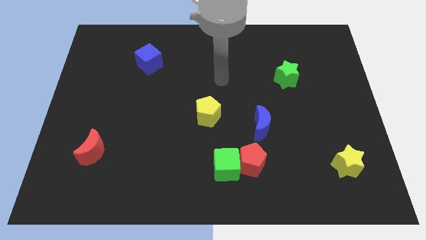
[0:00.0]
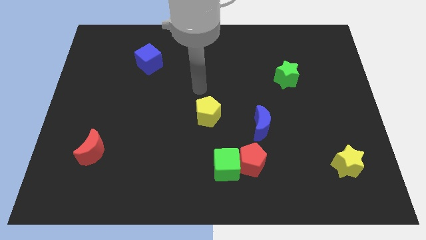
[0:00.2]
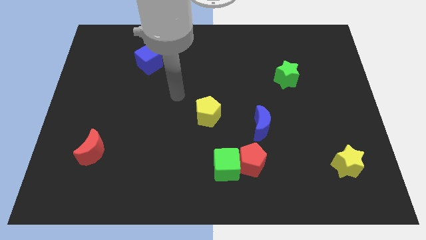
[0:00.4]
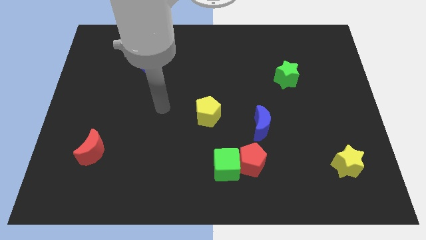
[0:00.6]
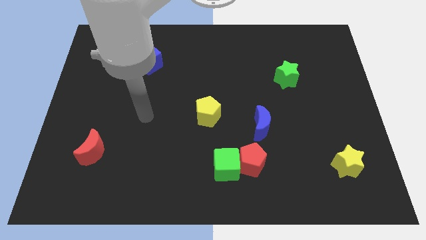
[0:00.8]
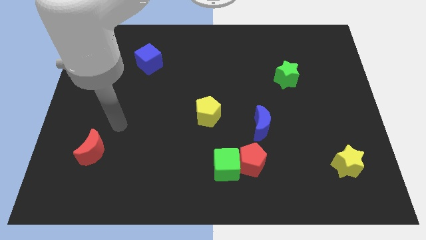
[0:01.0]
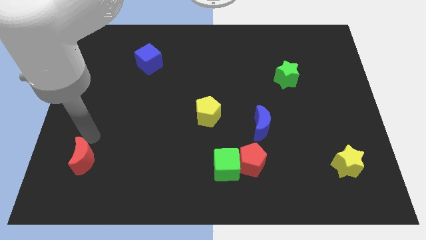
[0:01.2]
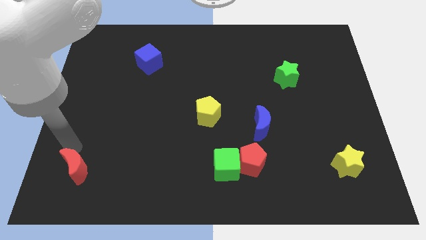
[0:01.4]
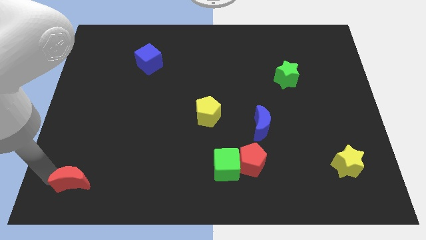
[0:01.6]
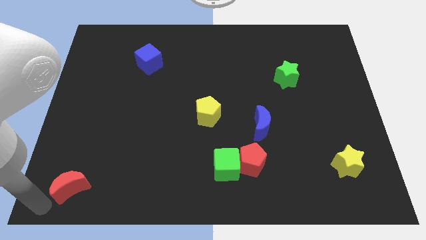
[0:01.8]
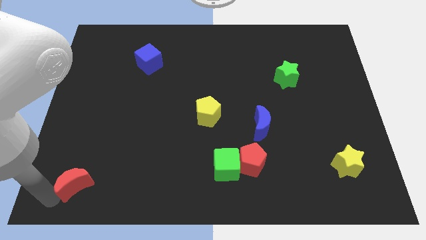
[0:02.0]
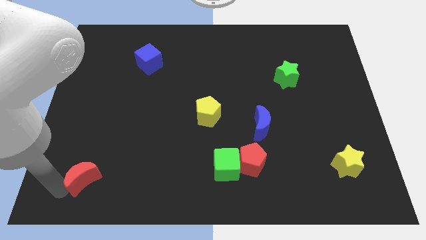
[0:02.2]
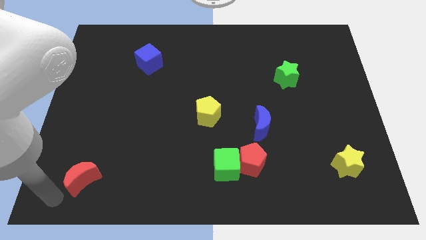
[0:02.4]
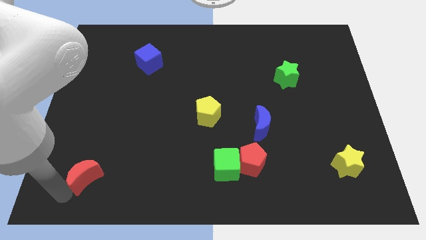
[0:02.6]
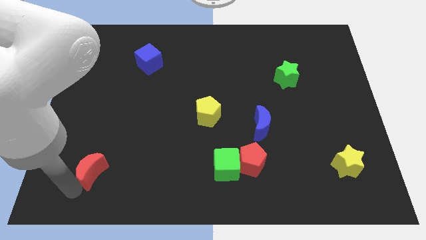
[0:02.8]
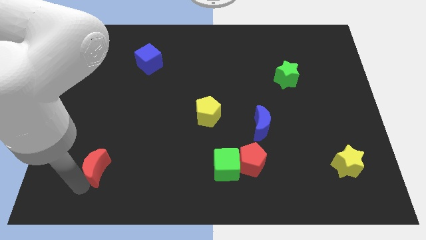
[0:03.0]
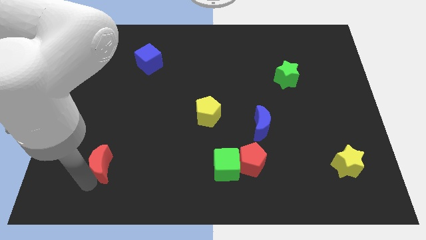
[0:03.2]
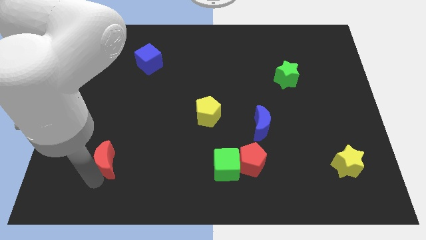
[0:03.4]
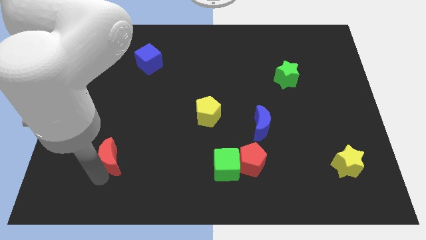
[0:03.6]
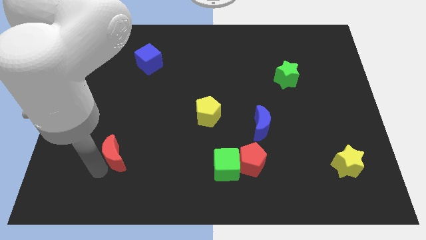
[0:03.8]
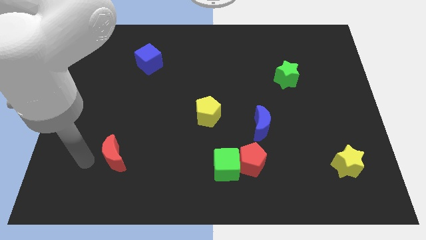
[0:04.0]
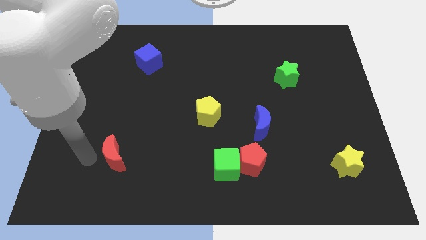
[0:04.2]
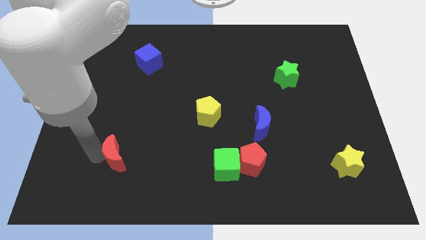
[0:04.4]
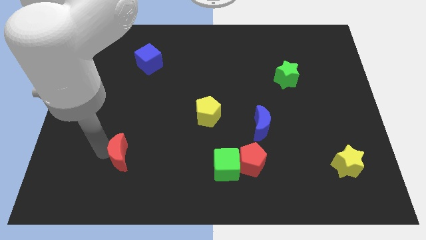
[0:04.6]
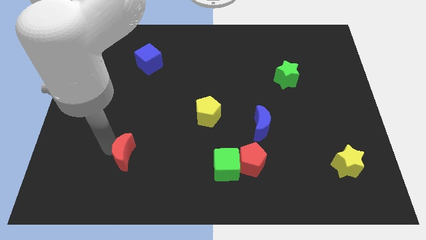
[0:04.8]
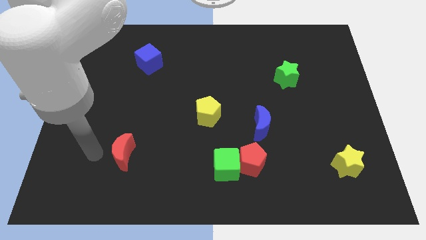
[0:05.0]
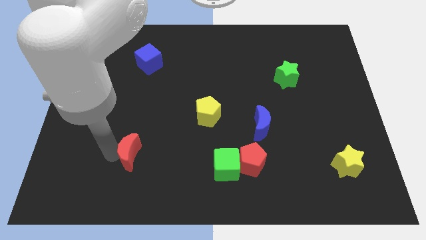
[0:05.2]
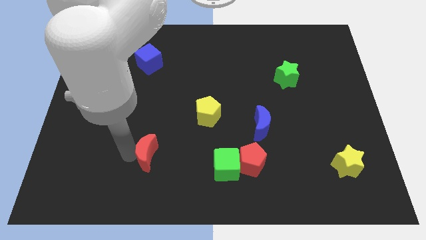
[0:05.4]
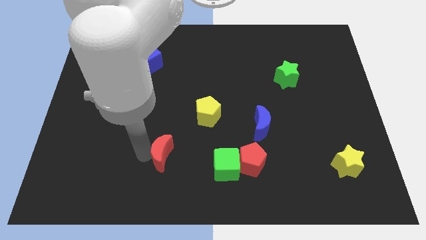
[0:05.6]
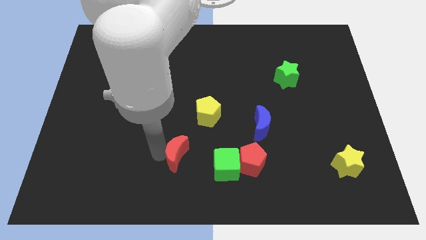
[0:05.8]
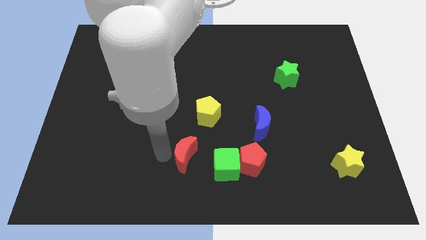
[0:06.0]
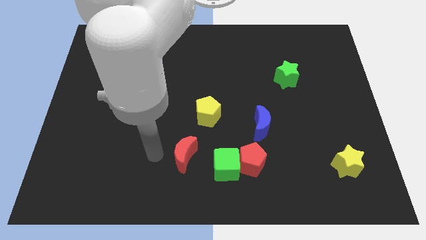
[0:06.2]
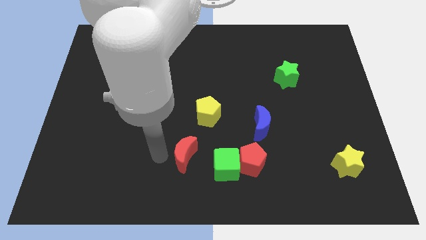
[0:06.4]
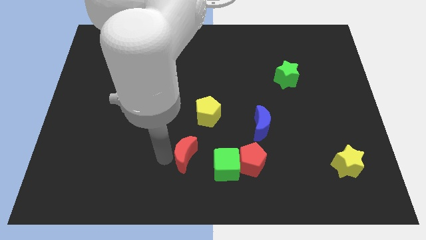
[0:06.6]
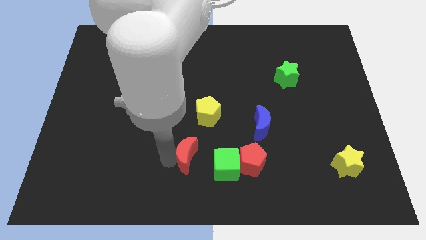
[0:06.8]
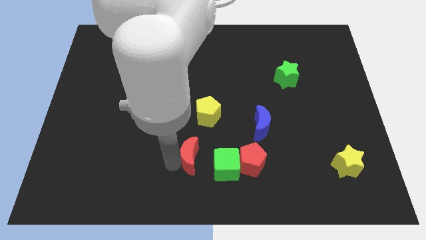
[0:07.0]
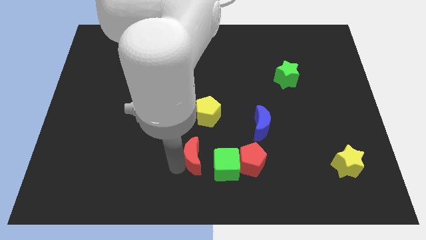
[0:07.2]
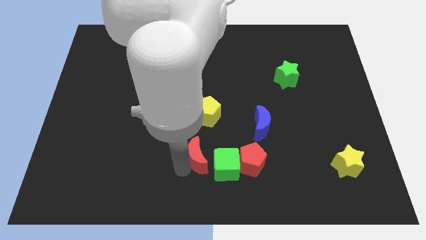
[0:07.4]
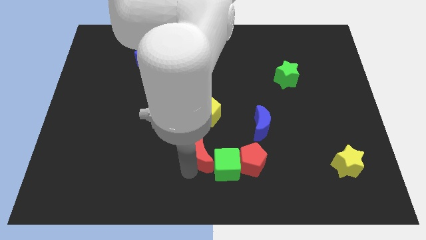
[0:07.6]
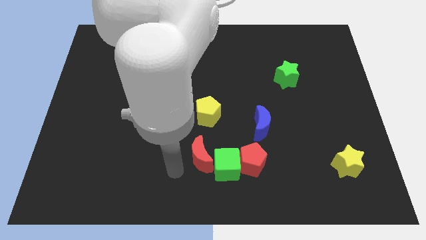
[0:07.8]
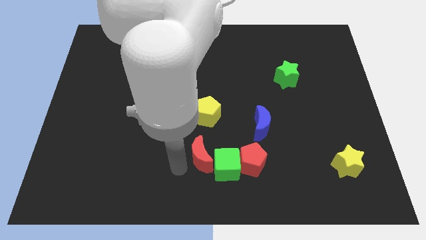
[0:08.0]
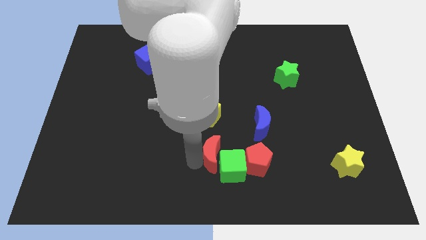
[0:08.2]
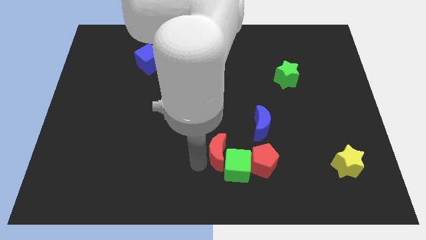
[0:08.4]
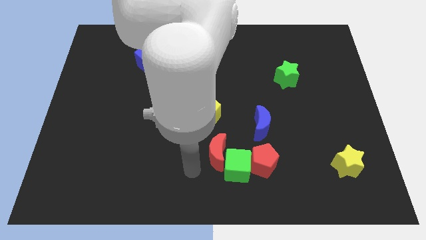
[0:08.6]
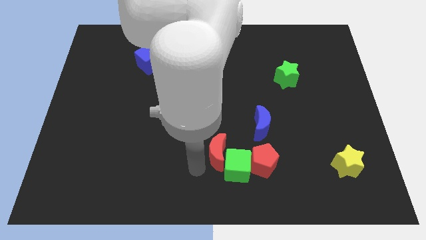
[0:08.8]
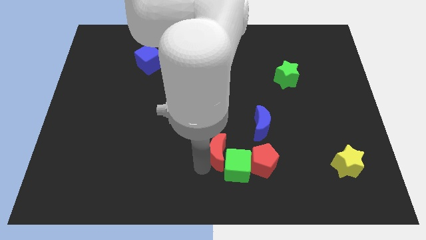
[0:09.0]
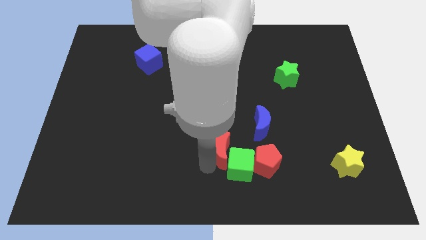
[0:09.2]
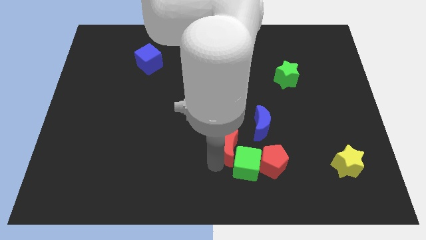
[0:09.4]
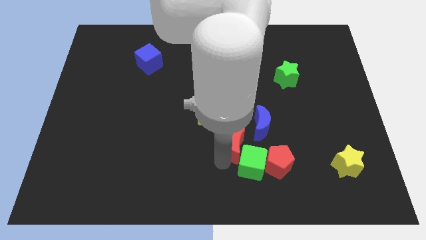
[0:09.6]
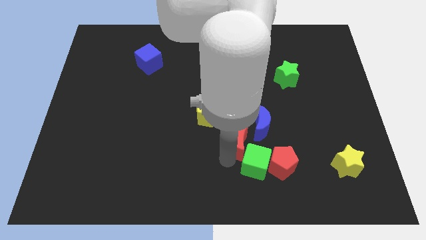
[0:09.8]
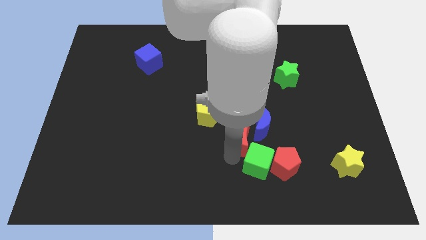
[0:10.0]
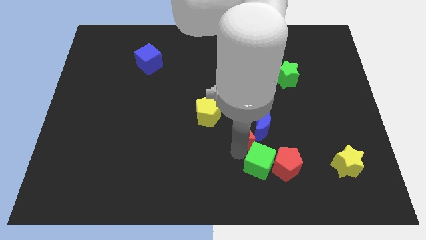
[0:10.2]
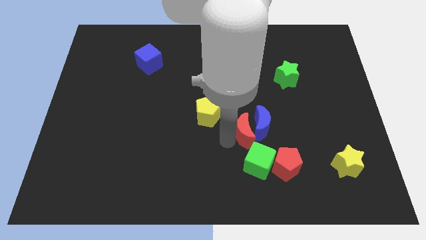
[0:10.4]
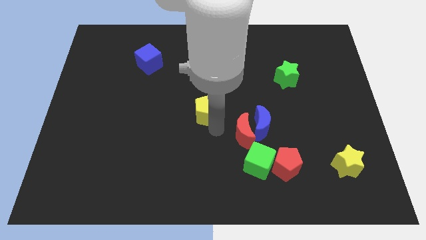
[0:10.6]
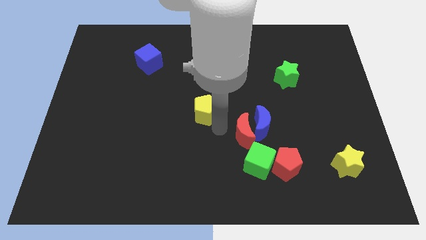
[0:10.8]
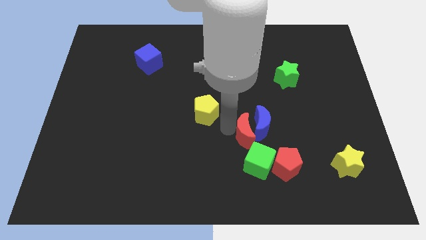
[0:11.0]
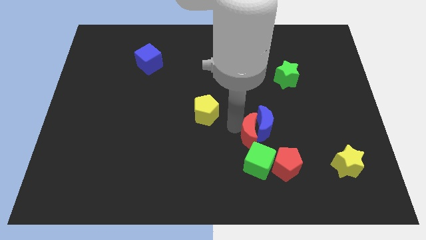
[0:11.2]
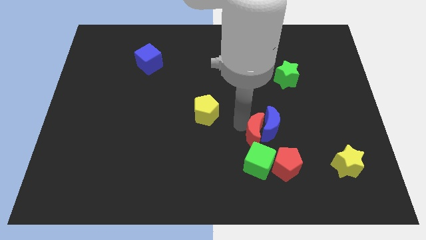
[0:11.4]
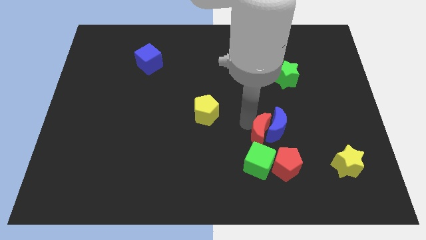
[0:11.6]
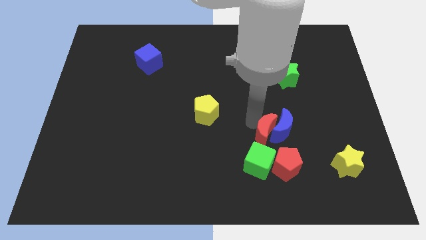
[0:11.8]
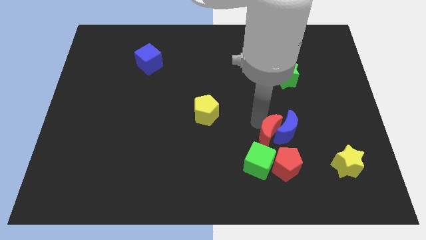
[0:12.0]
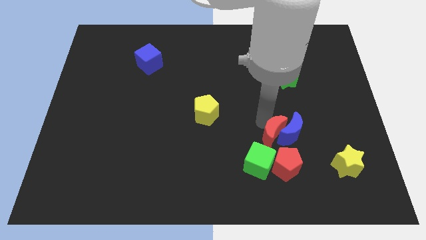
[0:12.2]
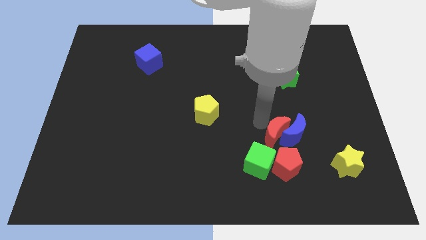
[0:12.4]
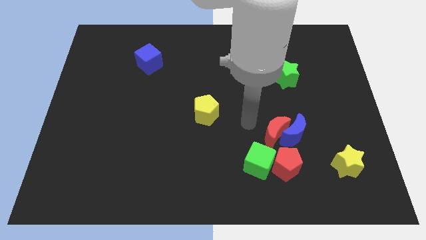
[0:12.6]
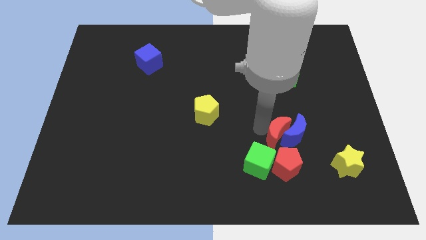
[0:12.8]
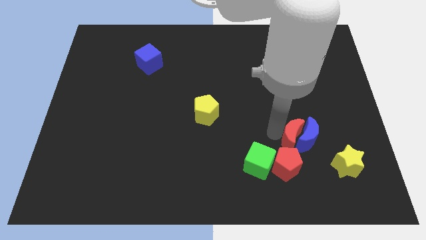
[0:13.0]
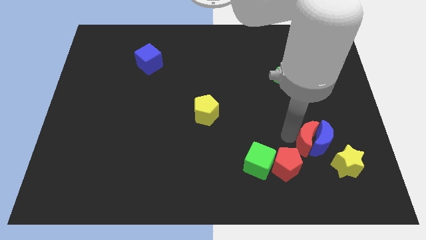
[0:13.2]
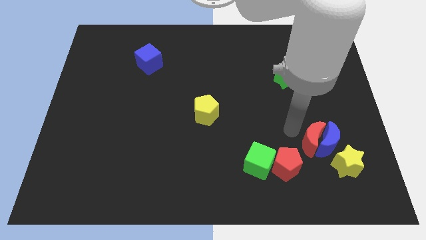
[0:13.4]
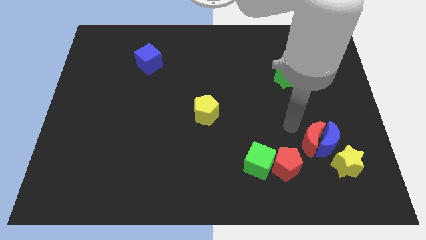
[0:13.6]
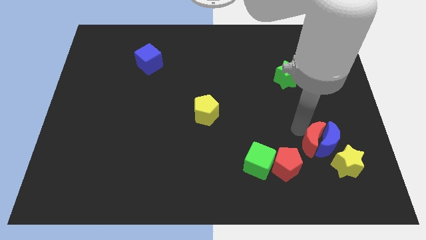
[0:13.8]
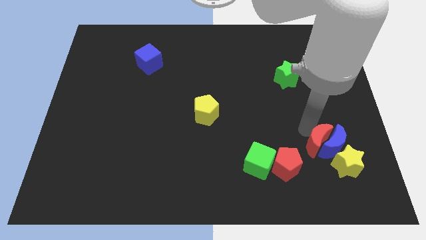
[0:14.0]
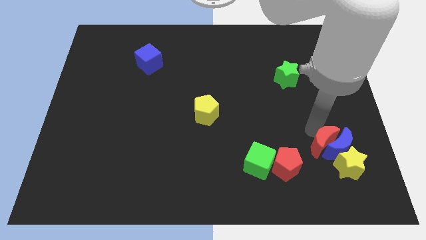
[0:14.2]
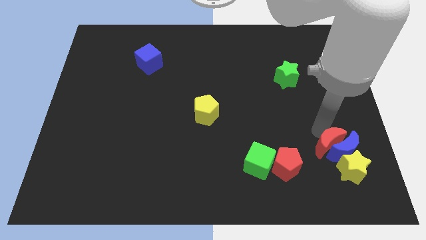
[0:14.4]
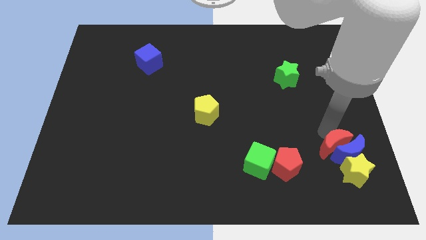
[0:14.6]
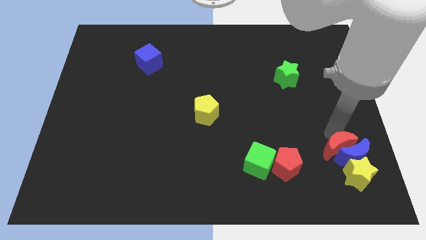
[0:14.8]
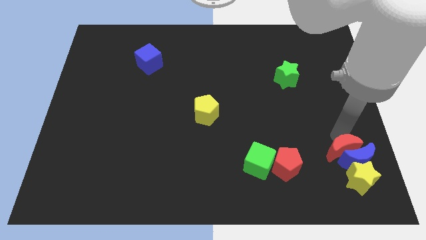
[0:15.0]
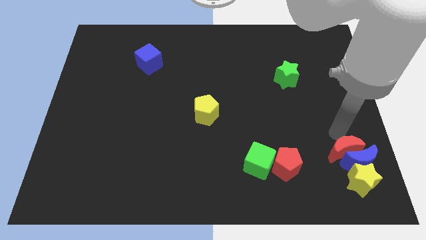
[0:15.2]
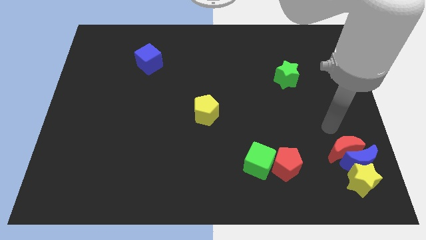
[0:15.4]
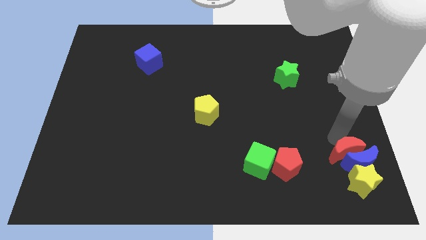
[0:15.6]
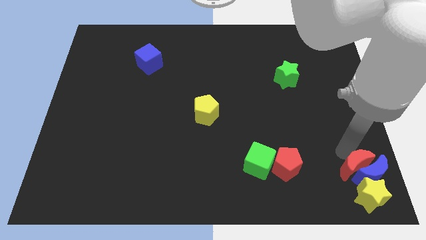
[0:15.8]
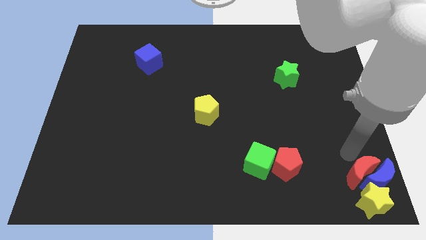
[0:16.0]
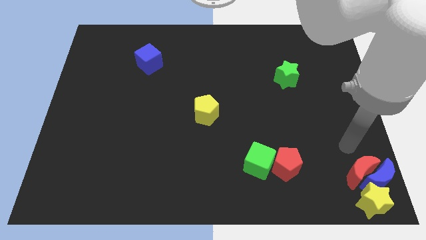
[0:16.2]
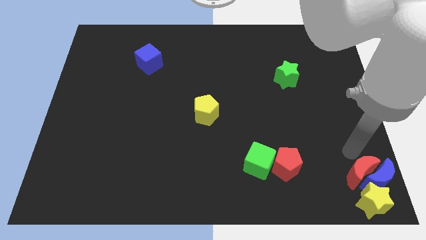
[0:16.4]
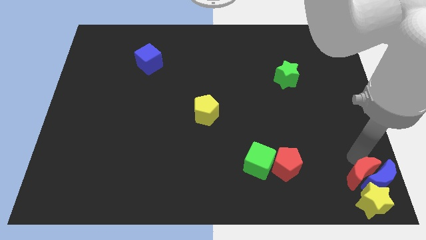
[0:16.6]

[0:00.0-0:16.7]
slide the red moon towards the yellow star
